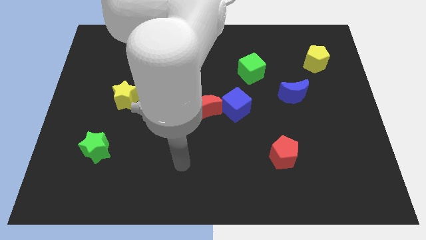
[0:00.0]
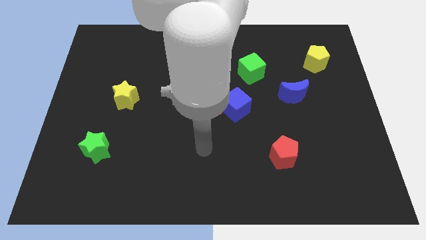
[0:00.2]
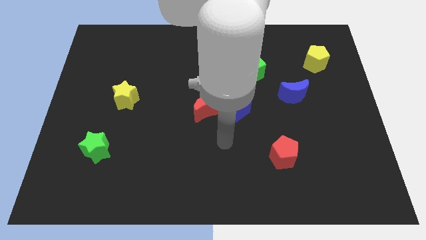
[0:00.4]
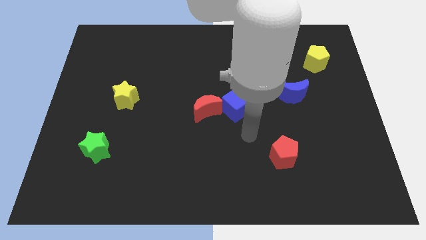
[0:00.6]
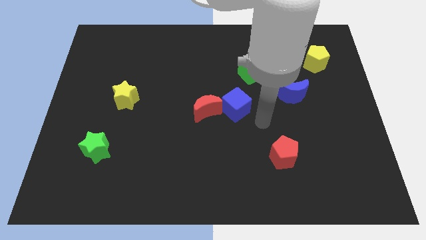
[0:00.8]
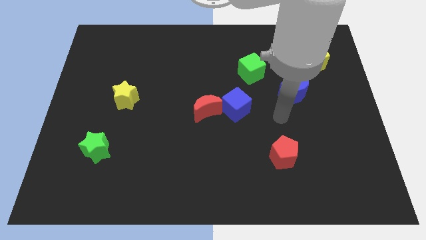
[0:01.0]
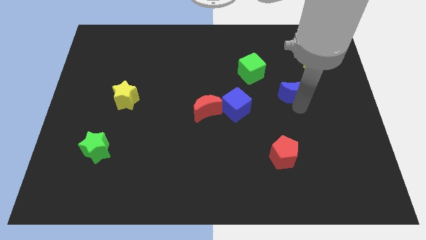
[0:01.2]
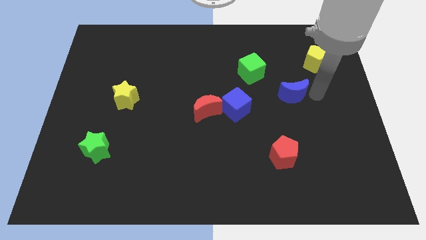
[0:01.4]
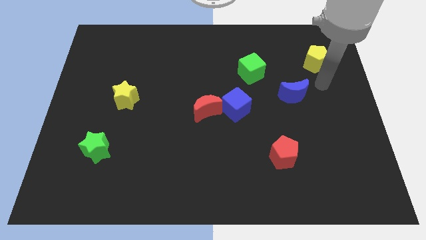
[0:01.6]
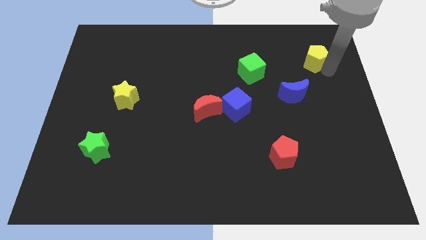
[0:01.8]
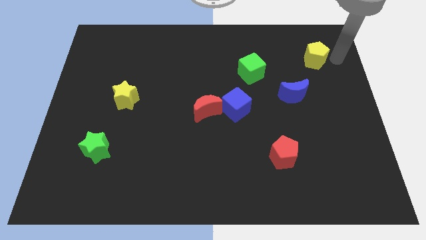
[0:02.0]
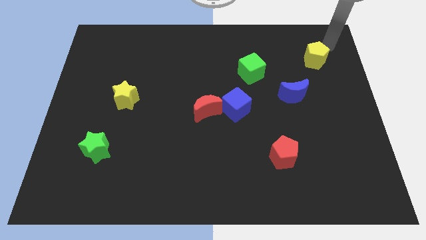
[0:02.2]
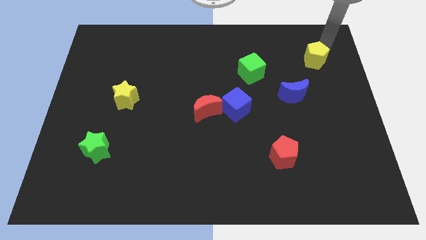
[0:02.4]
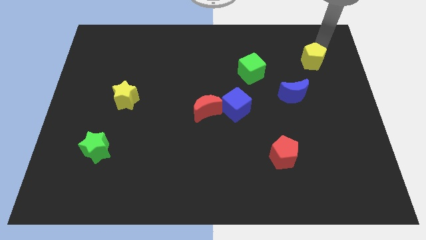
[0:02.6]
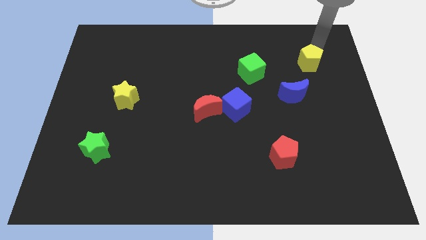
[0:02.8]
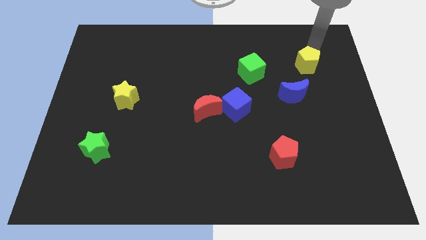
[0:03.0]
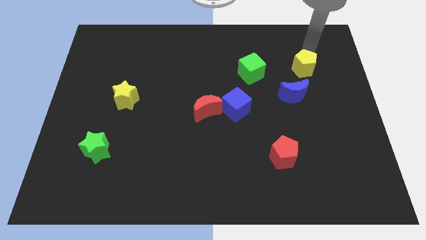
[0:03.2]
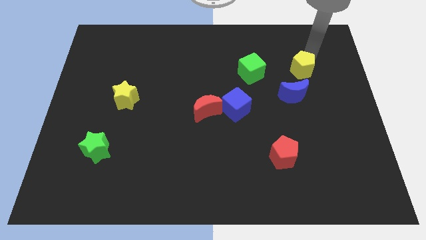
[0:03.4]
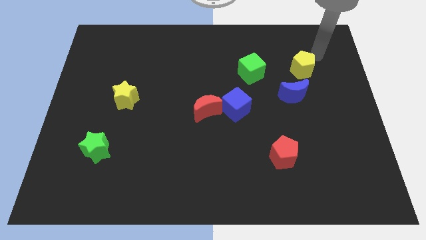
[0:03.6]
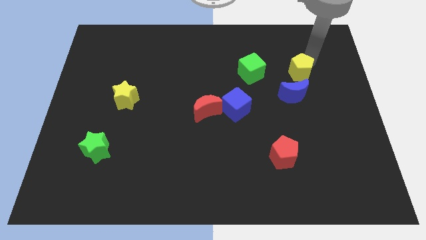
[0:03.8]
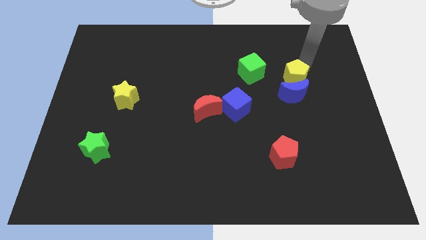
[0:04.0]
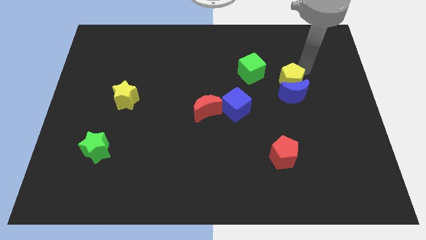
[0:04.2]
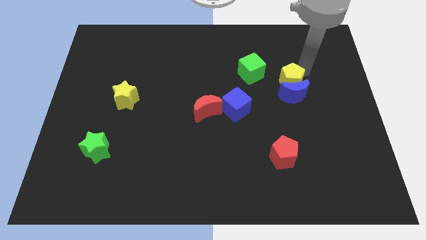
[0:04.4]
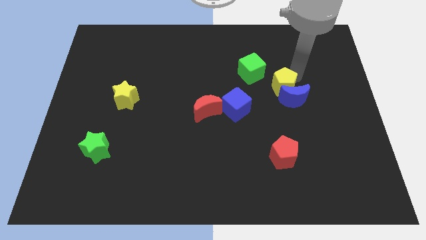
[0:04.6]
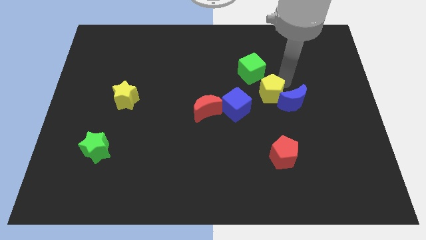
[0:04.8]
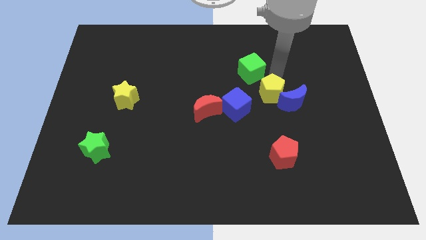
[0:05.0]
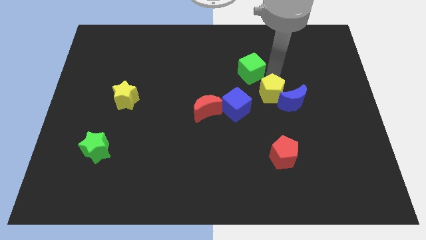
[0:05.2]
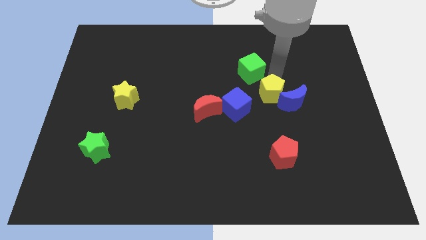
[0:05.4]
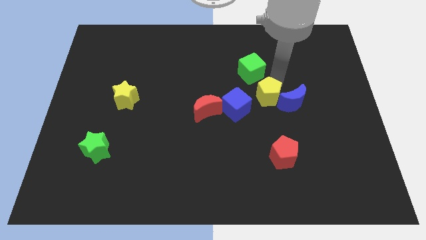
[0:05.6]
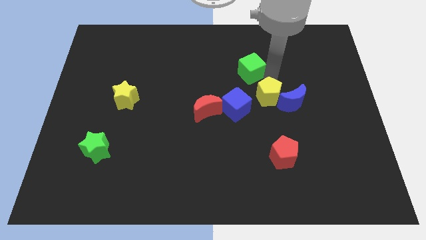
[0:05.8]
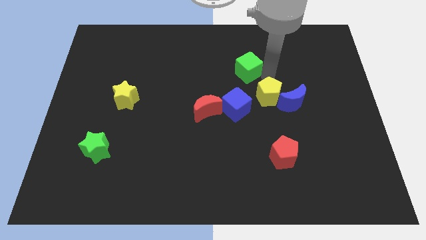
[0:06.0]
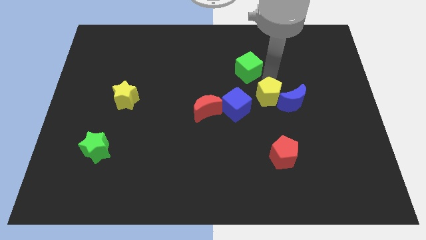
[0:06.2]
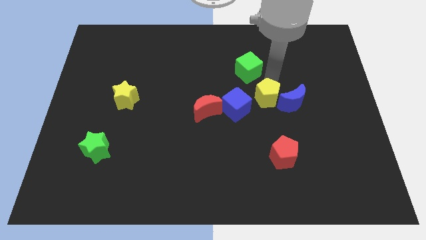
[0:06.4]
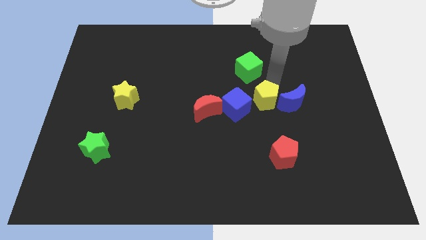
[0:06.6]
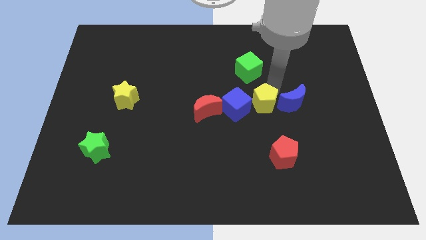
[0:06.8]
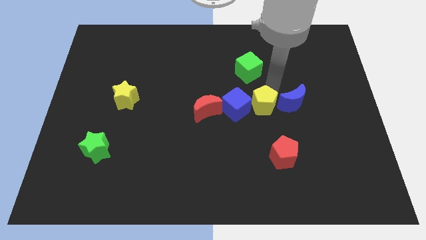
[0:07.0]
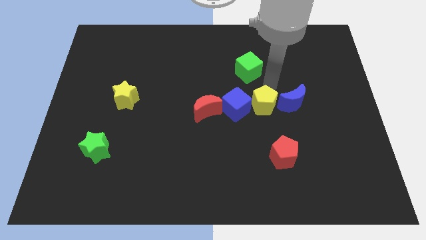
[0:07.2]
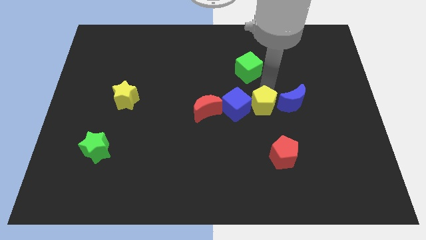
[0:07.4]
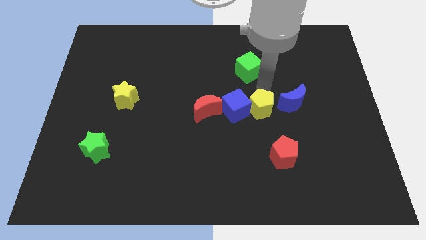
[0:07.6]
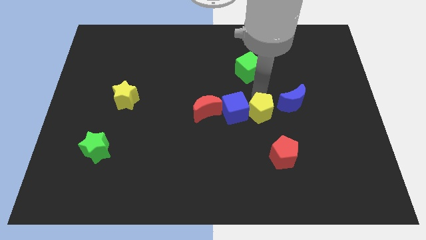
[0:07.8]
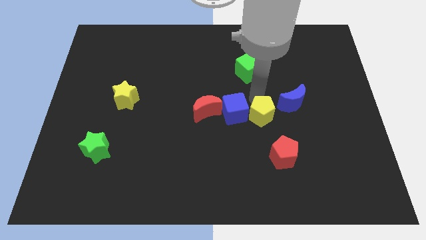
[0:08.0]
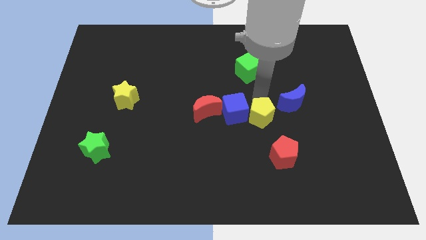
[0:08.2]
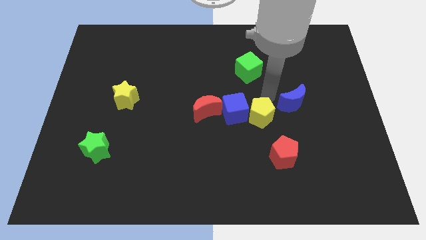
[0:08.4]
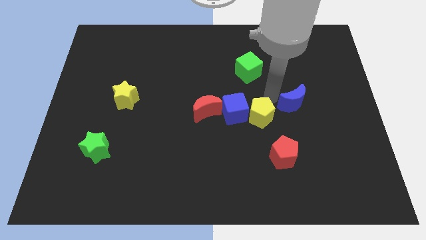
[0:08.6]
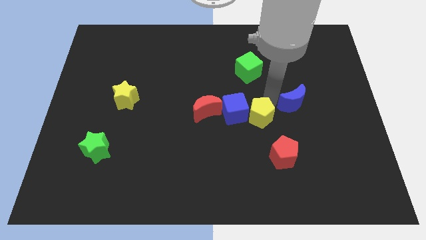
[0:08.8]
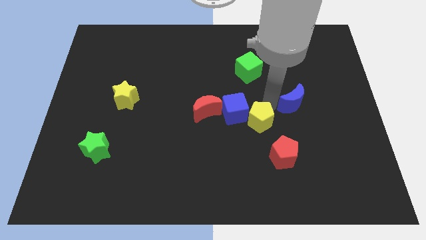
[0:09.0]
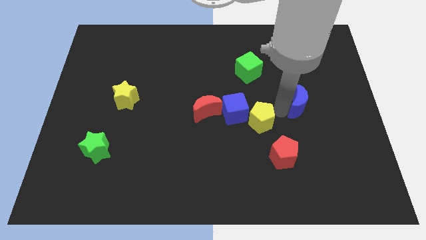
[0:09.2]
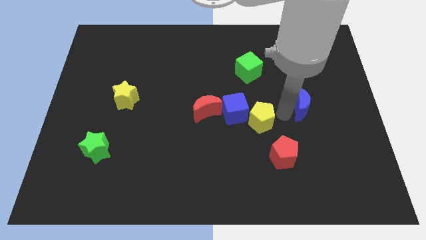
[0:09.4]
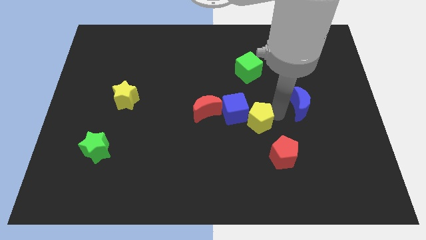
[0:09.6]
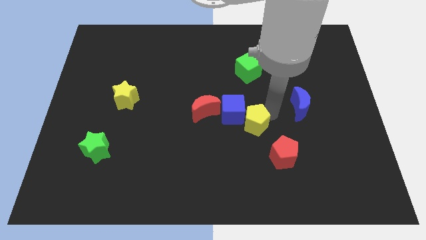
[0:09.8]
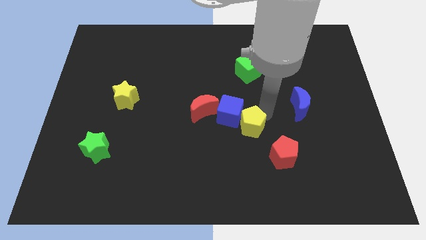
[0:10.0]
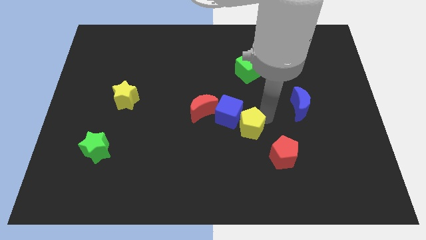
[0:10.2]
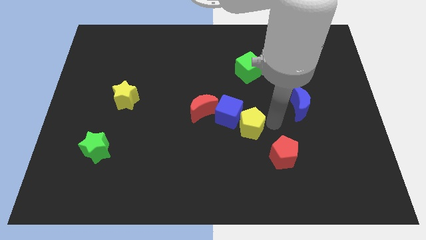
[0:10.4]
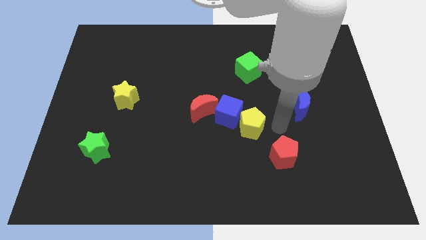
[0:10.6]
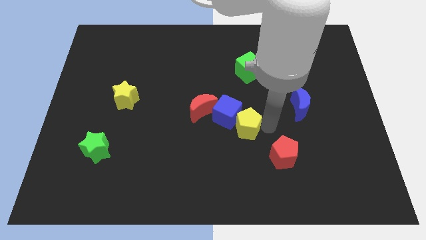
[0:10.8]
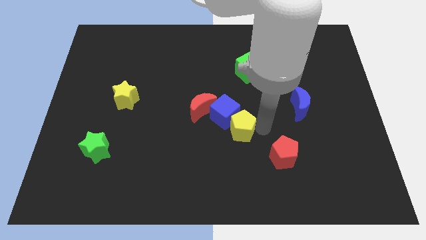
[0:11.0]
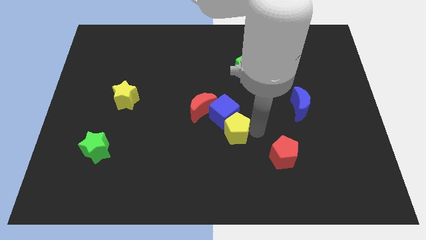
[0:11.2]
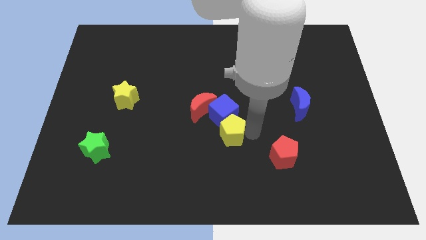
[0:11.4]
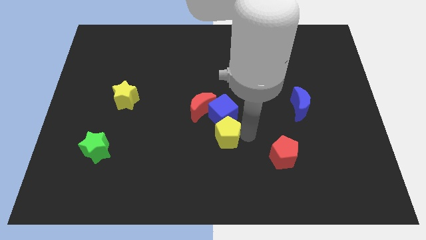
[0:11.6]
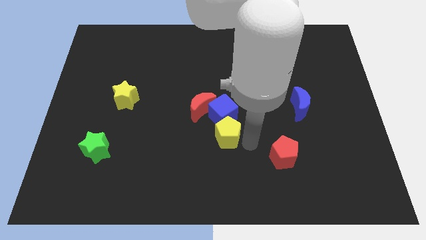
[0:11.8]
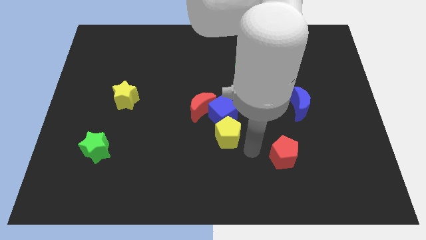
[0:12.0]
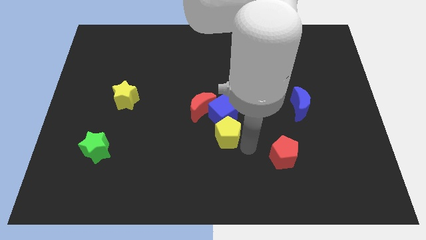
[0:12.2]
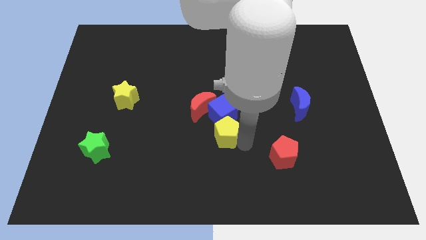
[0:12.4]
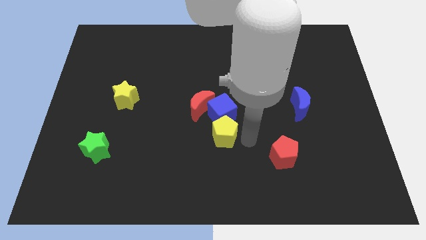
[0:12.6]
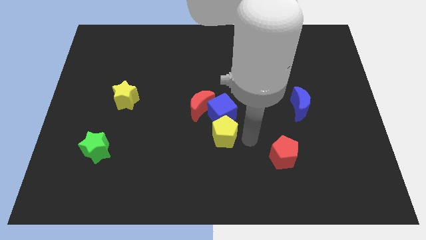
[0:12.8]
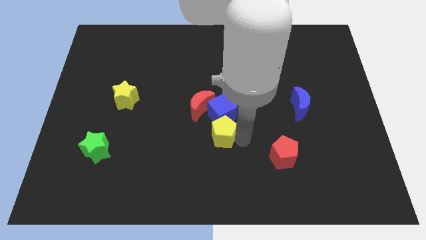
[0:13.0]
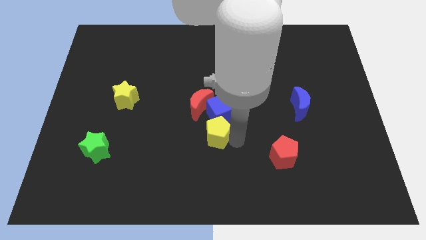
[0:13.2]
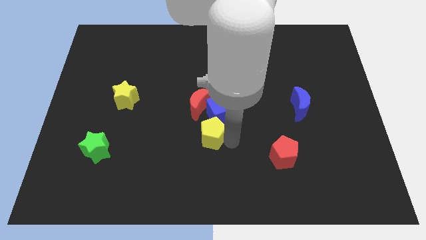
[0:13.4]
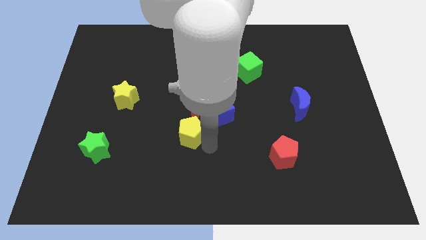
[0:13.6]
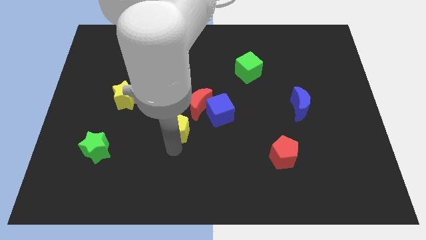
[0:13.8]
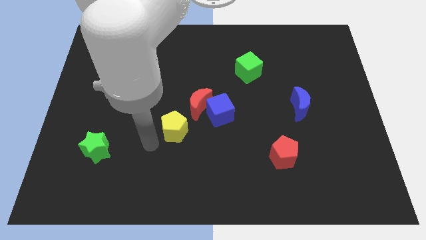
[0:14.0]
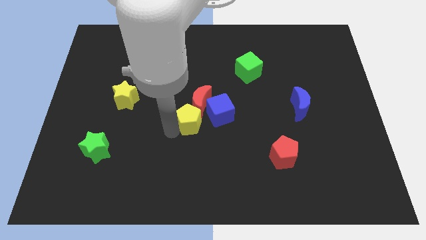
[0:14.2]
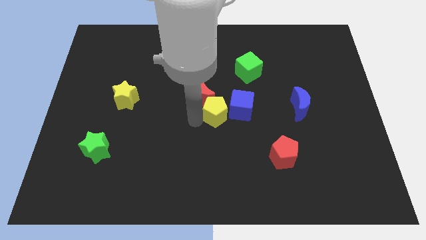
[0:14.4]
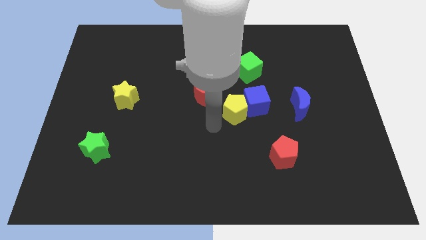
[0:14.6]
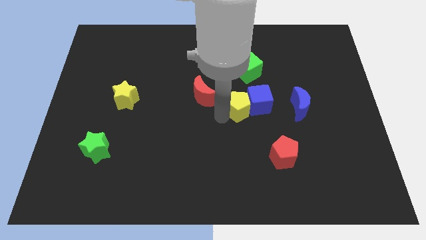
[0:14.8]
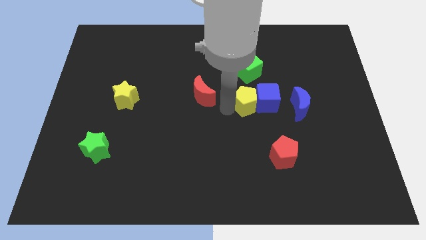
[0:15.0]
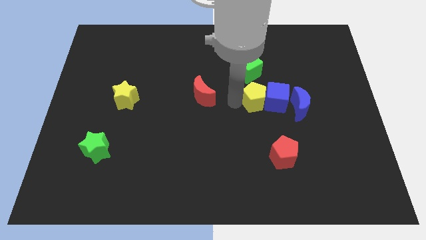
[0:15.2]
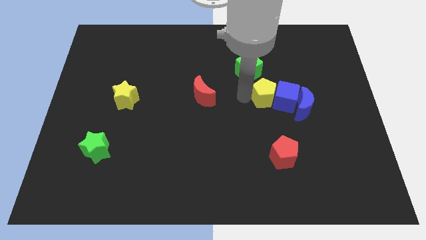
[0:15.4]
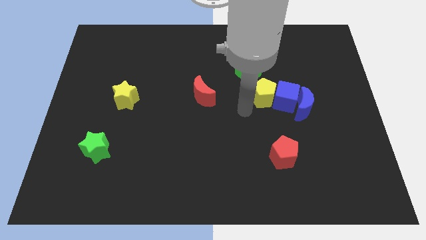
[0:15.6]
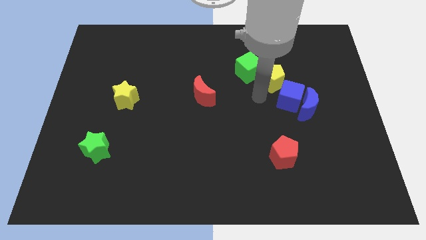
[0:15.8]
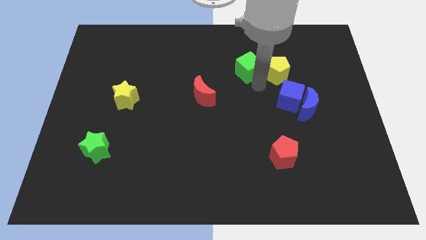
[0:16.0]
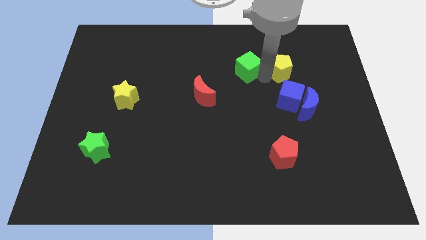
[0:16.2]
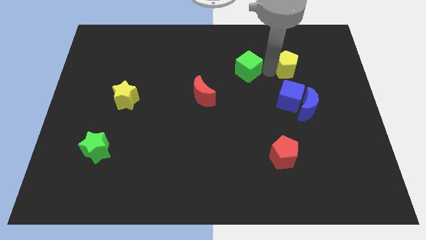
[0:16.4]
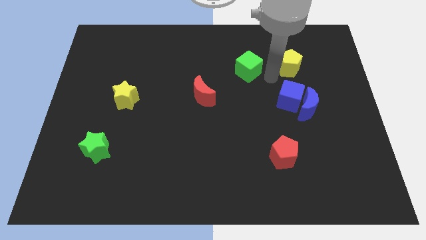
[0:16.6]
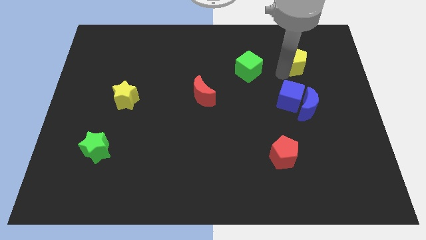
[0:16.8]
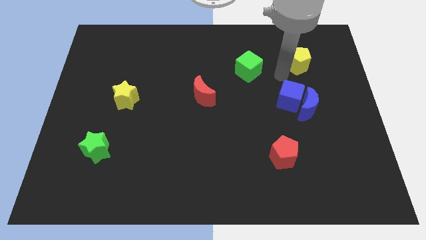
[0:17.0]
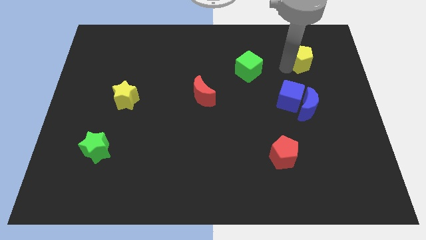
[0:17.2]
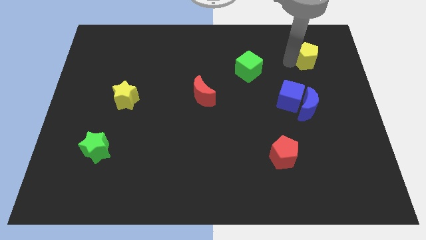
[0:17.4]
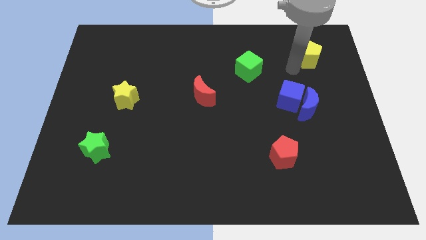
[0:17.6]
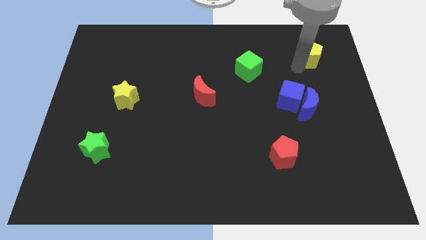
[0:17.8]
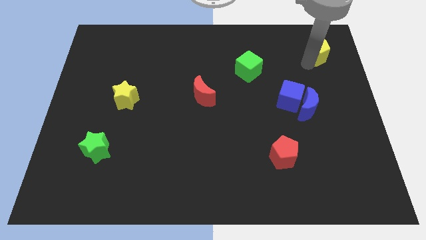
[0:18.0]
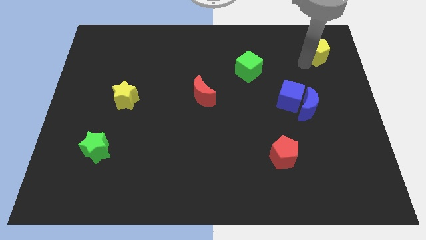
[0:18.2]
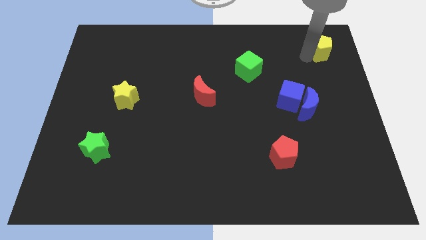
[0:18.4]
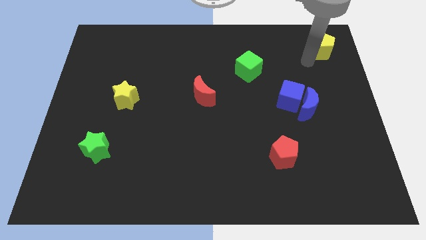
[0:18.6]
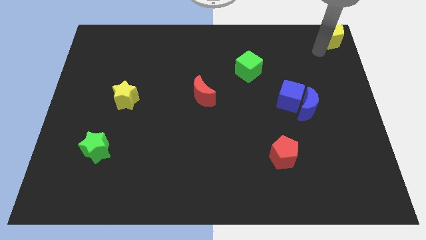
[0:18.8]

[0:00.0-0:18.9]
put the yellow pentagon to the upper right corner
